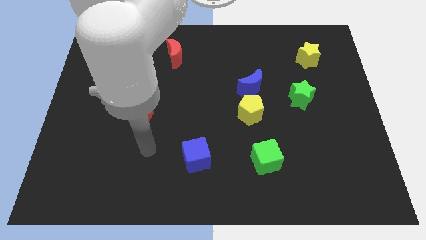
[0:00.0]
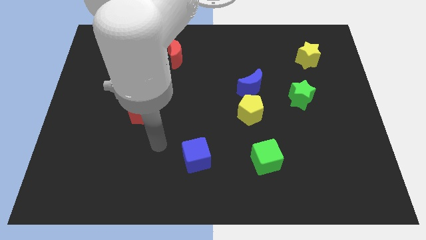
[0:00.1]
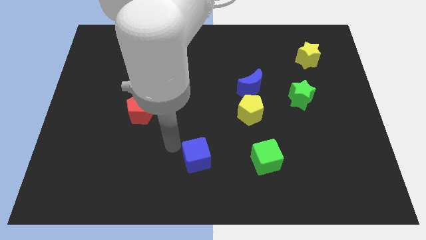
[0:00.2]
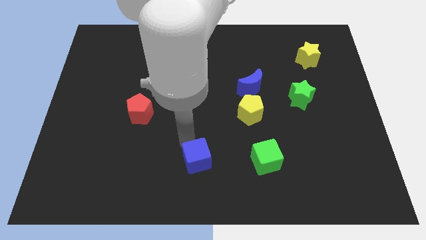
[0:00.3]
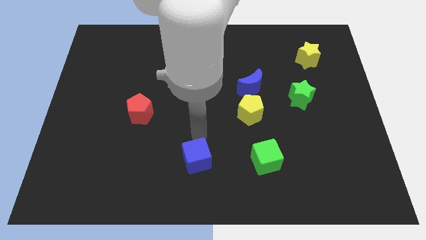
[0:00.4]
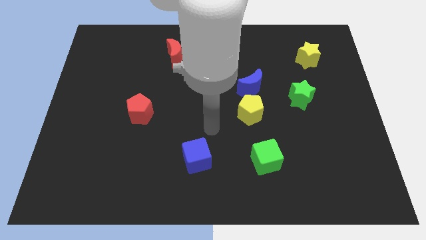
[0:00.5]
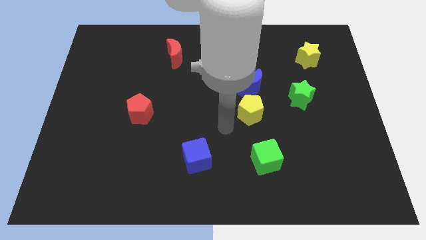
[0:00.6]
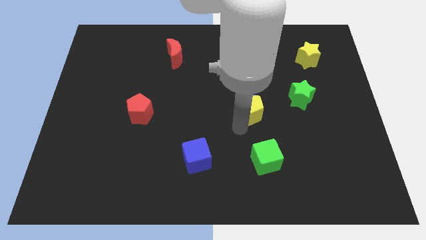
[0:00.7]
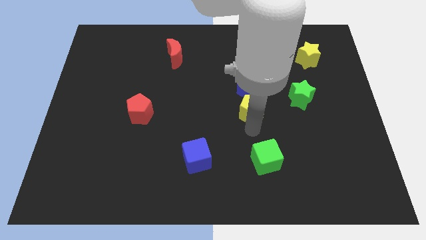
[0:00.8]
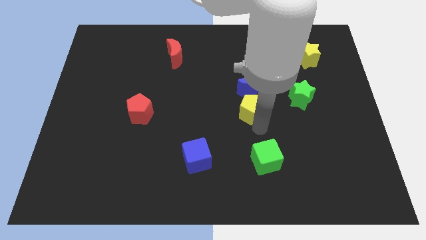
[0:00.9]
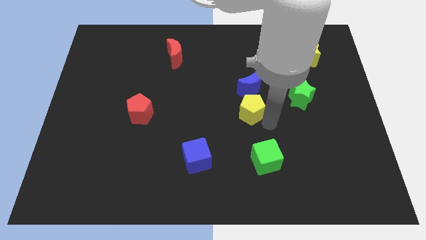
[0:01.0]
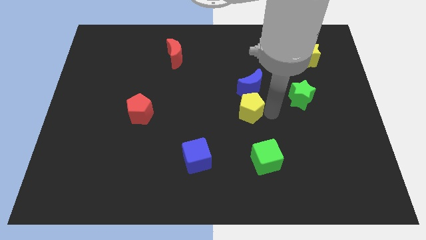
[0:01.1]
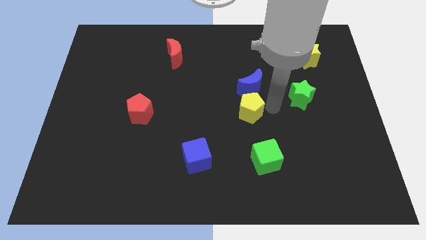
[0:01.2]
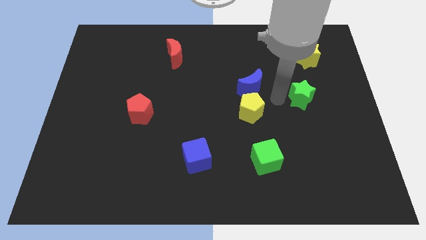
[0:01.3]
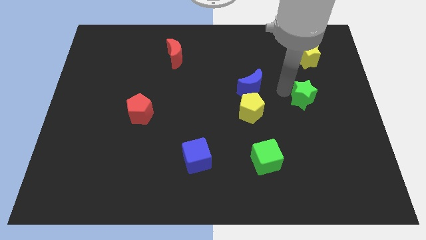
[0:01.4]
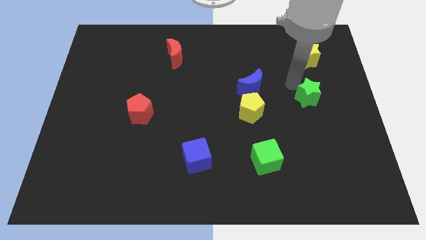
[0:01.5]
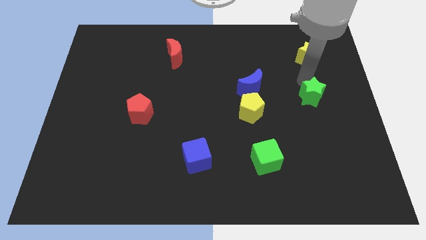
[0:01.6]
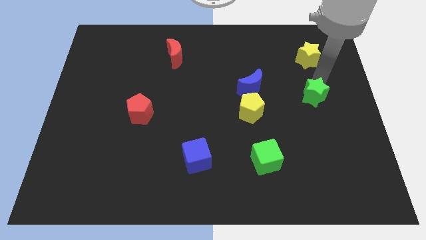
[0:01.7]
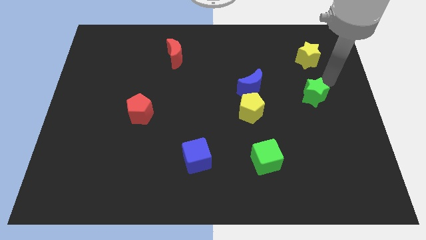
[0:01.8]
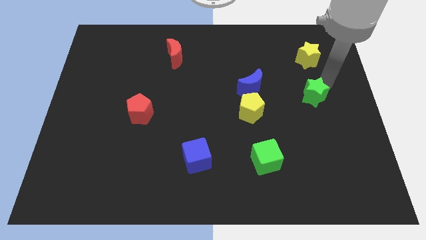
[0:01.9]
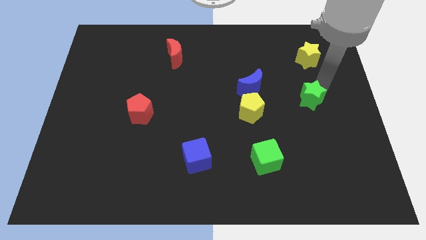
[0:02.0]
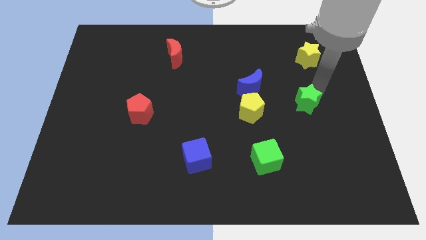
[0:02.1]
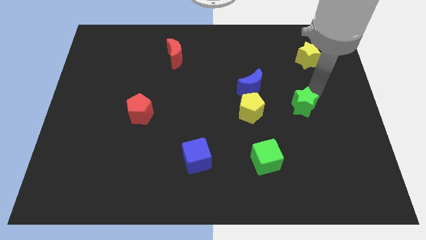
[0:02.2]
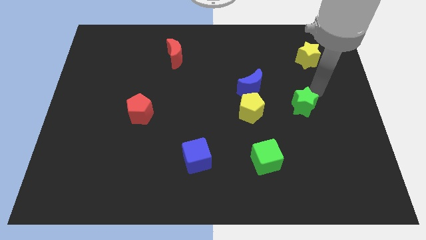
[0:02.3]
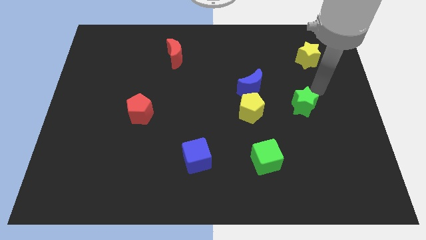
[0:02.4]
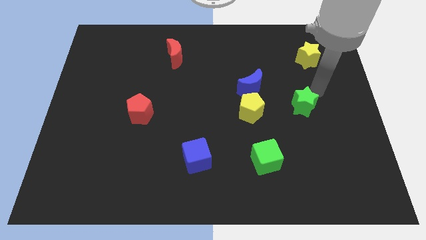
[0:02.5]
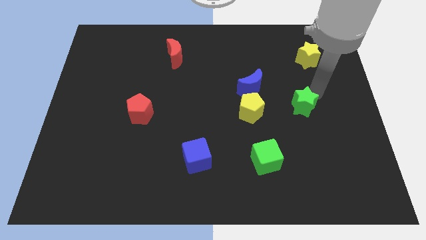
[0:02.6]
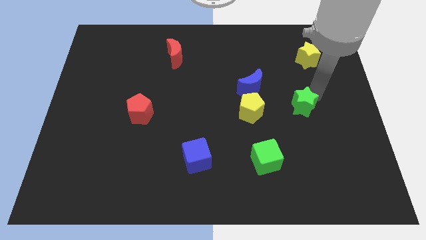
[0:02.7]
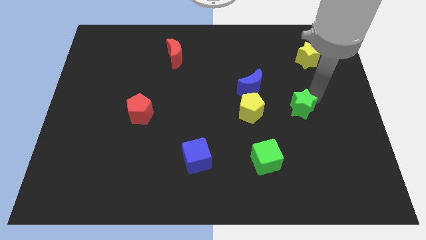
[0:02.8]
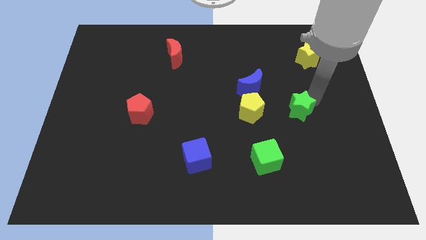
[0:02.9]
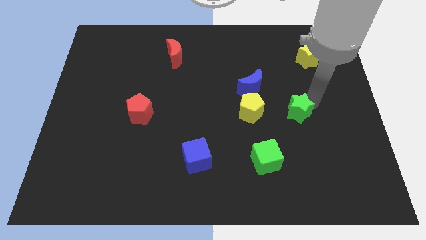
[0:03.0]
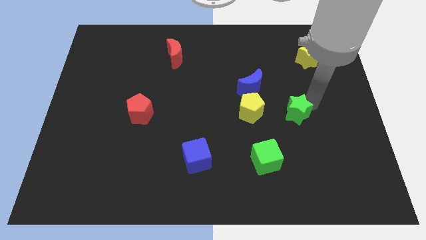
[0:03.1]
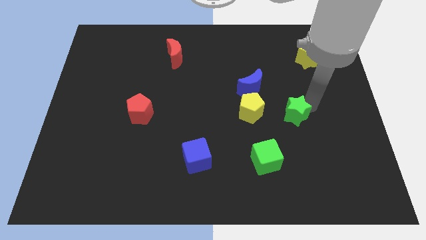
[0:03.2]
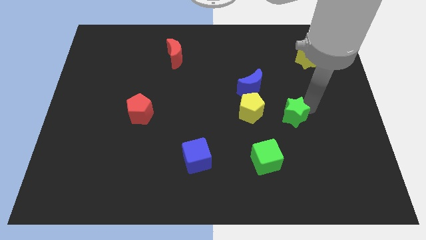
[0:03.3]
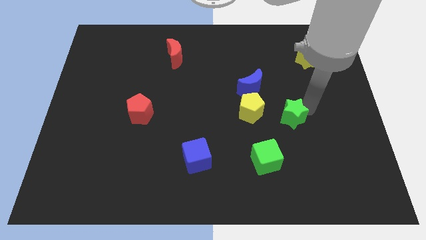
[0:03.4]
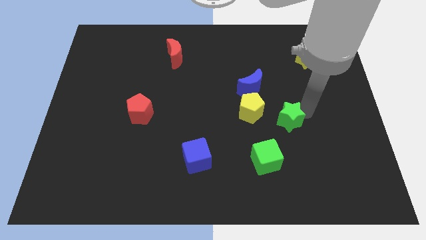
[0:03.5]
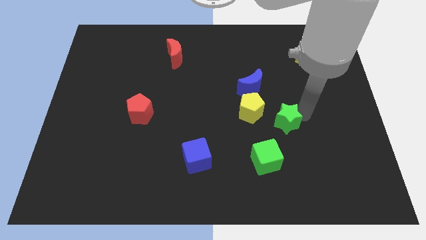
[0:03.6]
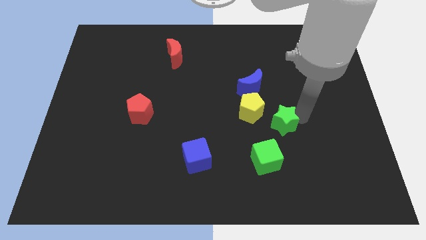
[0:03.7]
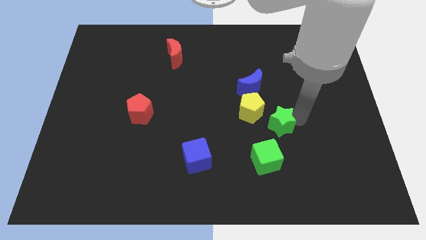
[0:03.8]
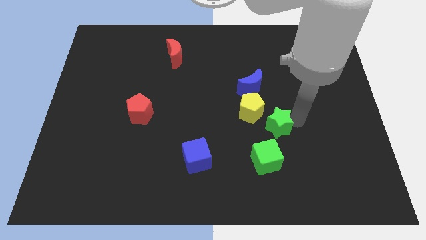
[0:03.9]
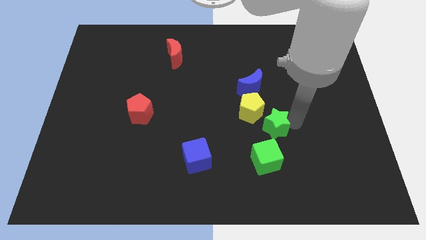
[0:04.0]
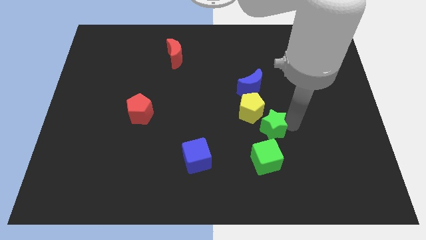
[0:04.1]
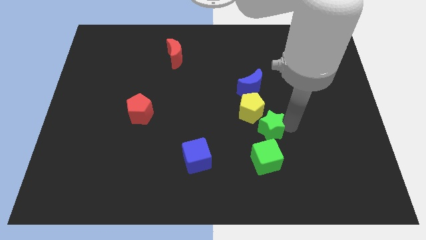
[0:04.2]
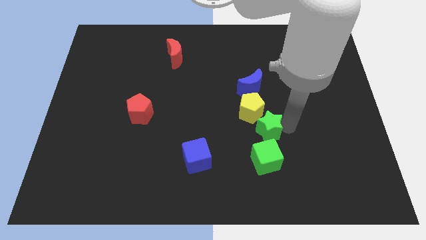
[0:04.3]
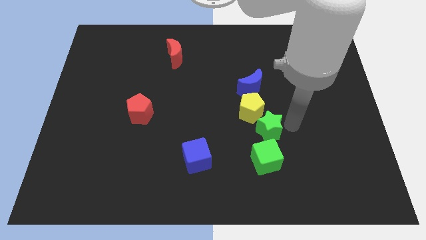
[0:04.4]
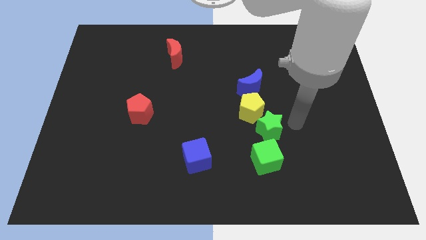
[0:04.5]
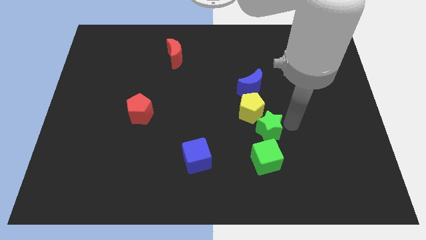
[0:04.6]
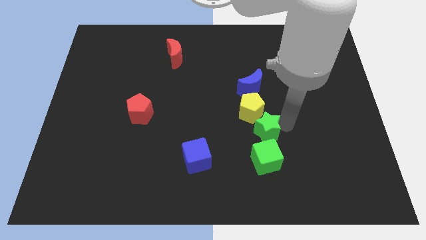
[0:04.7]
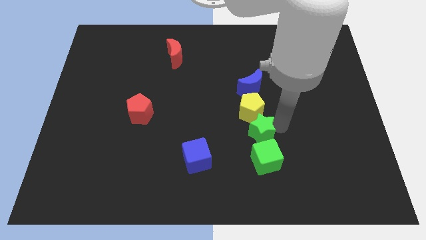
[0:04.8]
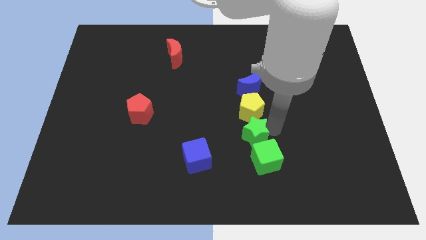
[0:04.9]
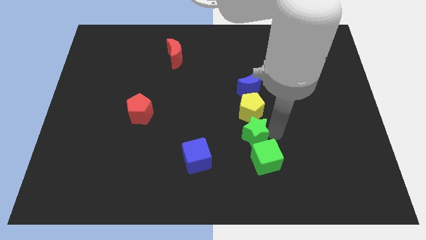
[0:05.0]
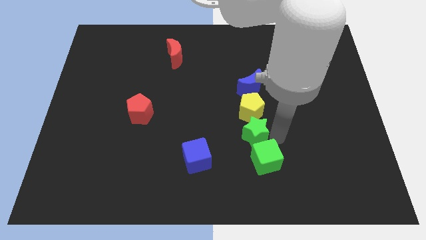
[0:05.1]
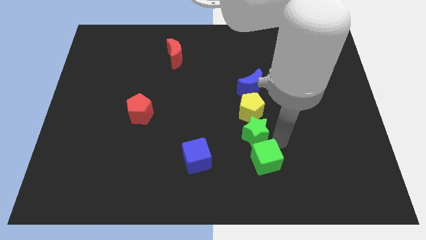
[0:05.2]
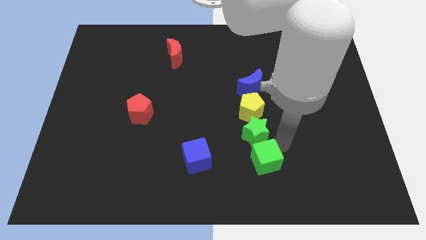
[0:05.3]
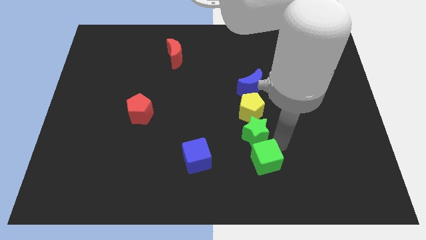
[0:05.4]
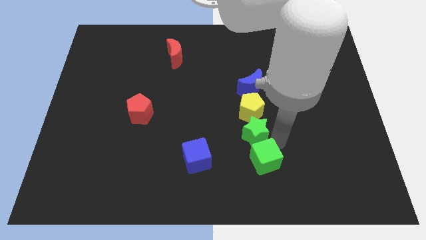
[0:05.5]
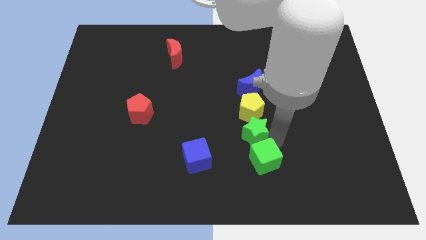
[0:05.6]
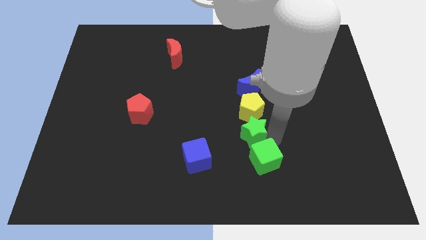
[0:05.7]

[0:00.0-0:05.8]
move the green star left slightly

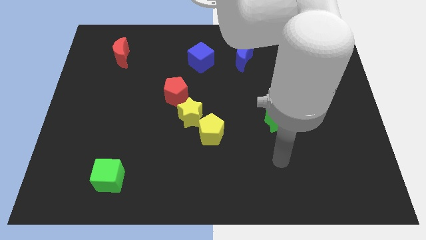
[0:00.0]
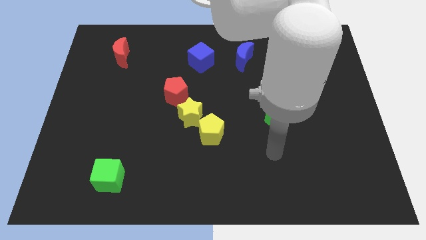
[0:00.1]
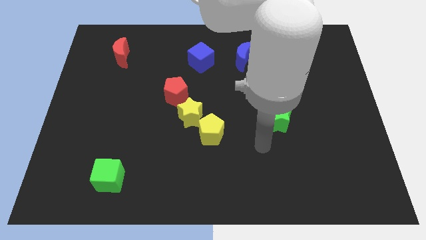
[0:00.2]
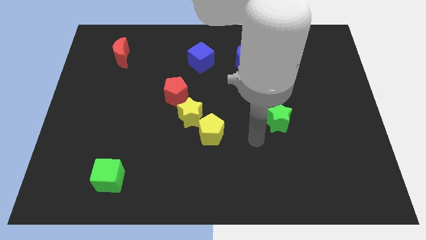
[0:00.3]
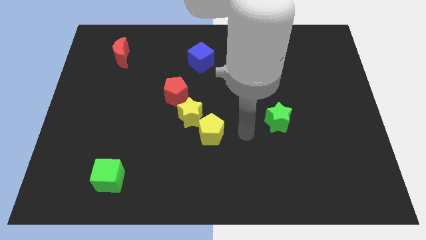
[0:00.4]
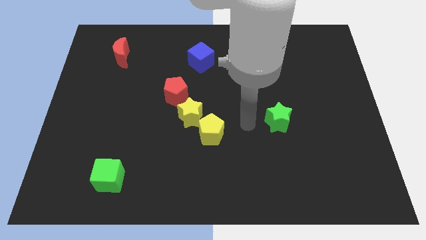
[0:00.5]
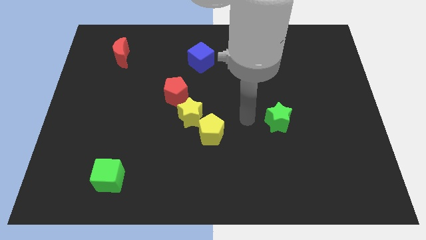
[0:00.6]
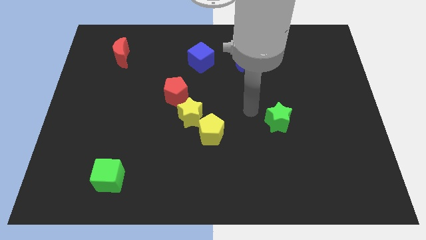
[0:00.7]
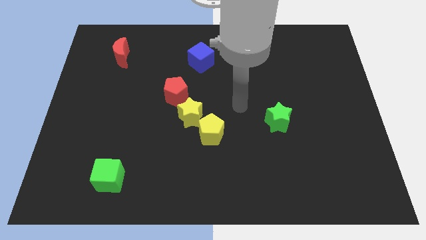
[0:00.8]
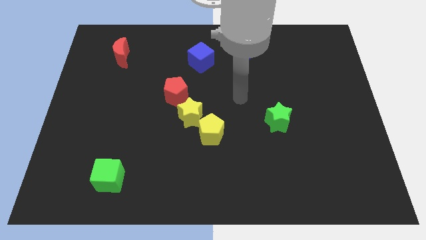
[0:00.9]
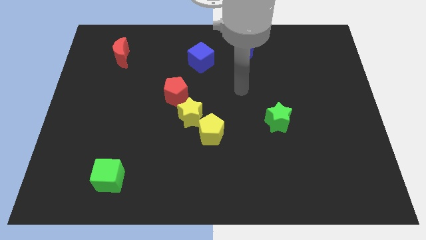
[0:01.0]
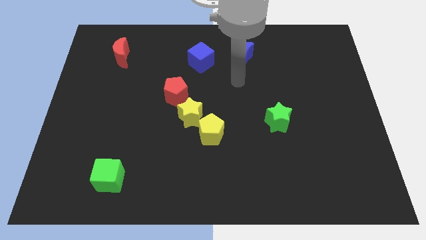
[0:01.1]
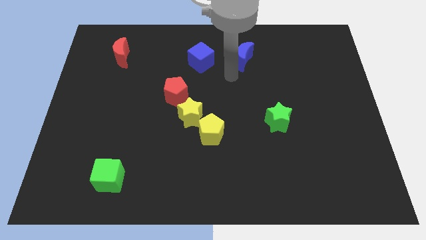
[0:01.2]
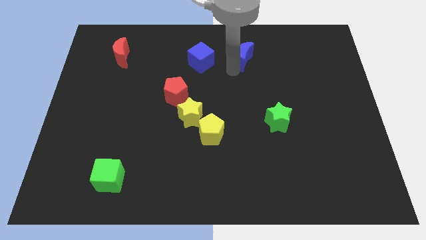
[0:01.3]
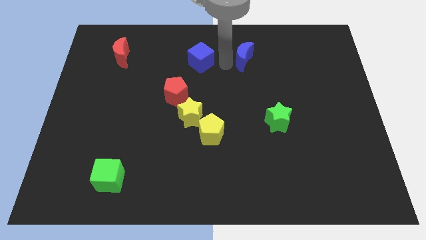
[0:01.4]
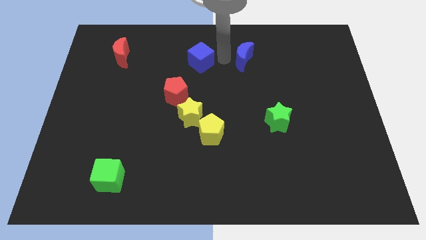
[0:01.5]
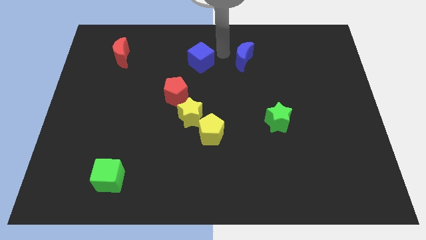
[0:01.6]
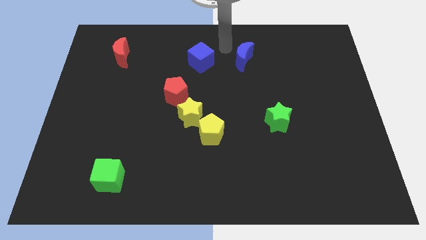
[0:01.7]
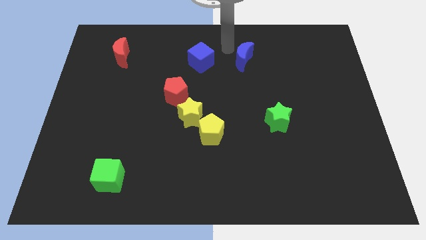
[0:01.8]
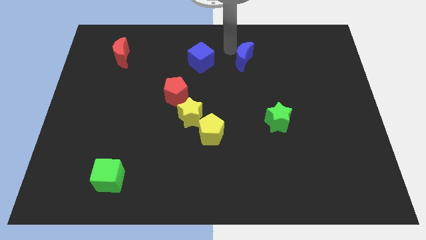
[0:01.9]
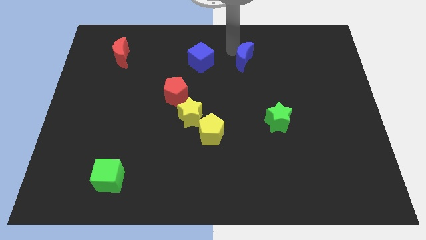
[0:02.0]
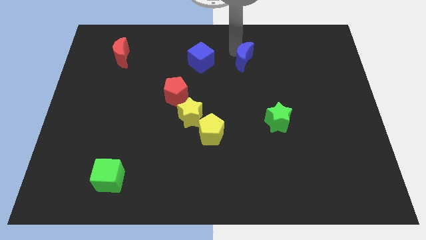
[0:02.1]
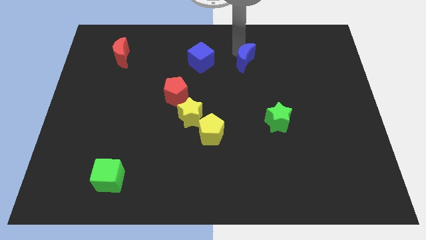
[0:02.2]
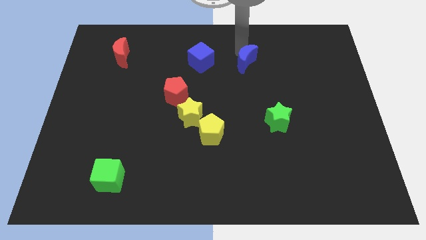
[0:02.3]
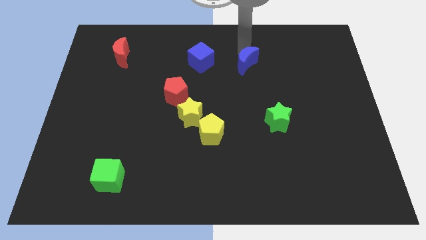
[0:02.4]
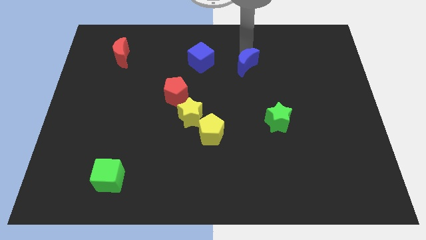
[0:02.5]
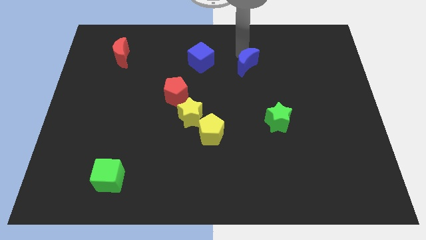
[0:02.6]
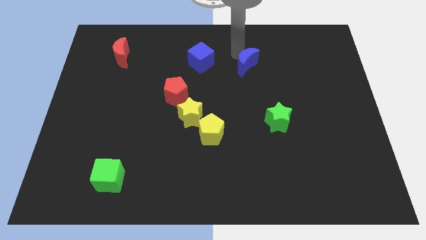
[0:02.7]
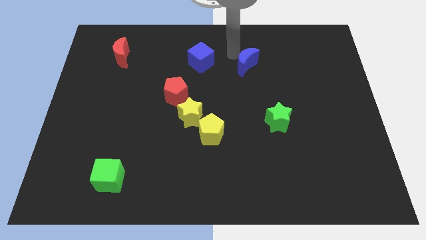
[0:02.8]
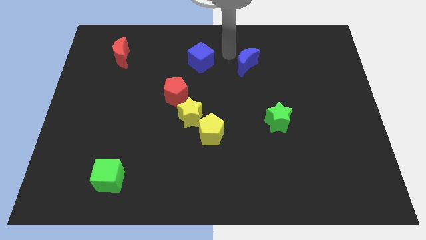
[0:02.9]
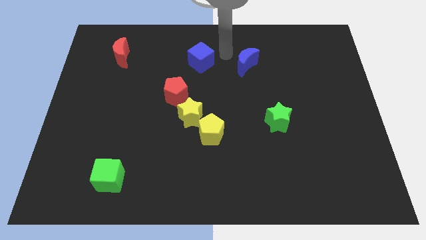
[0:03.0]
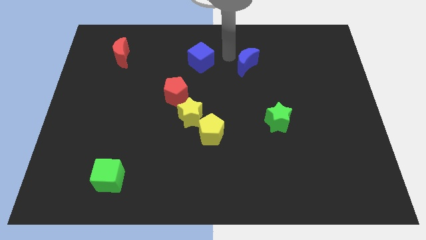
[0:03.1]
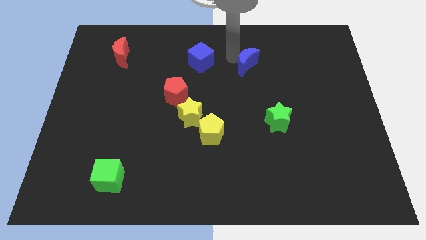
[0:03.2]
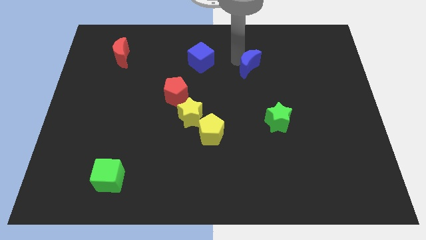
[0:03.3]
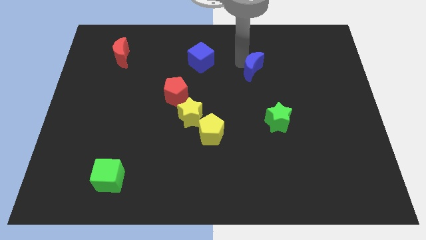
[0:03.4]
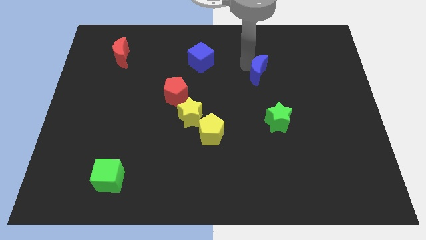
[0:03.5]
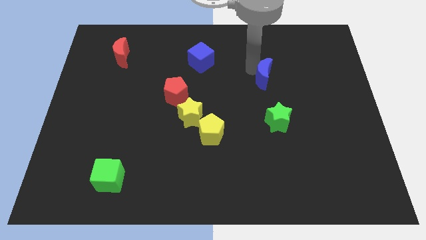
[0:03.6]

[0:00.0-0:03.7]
slightly push the blue moon down and to the right diagonally
